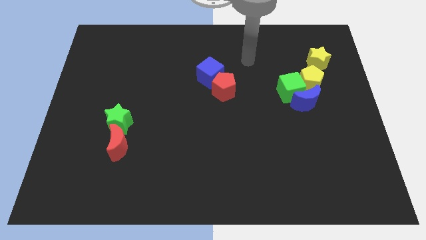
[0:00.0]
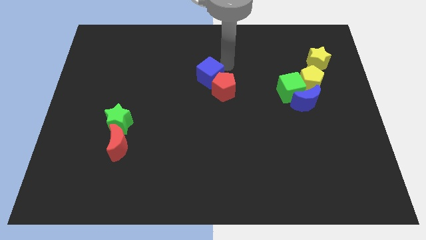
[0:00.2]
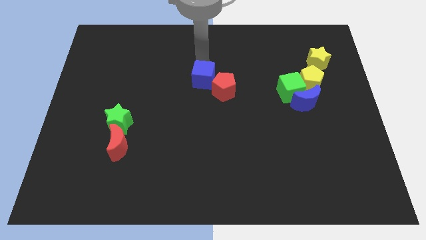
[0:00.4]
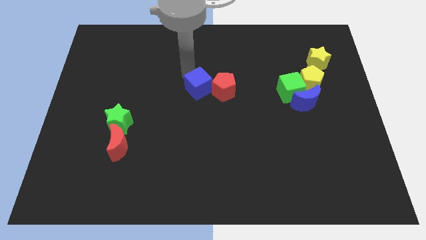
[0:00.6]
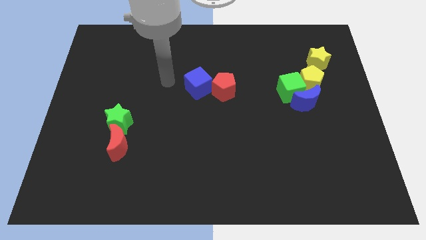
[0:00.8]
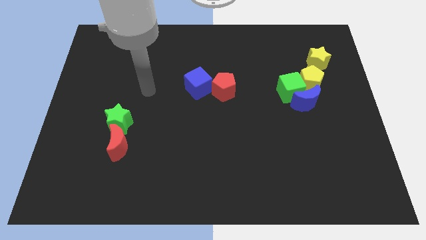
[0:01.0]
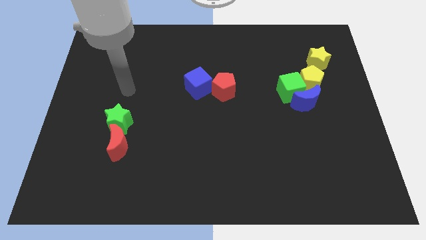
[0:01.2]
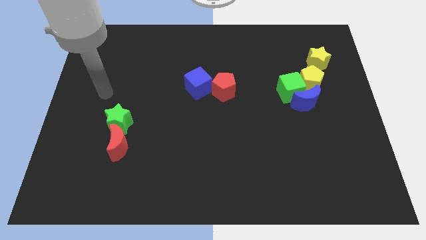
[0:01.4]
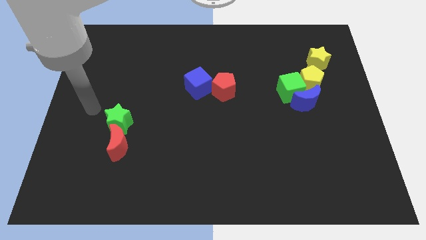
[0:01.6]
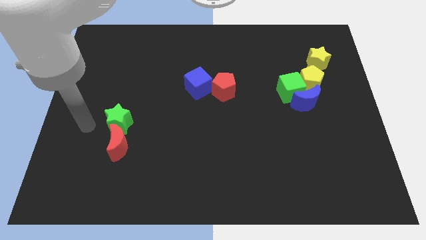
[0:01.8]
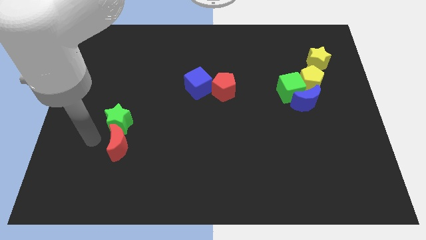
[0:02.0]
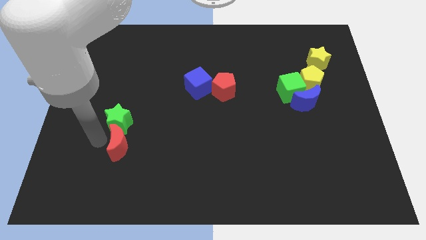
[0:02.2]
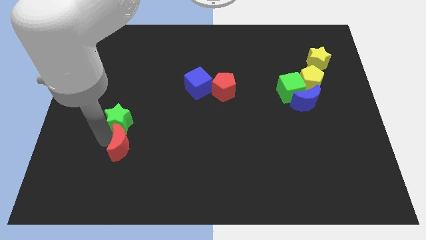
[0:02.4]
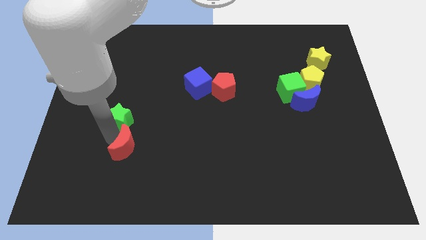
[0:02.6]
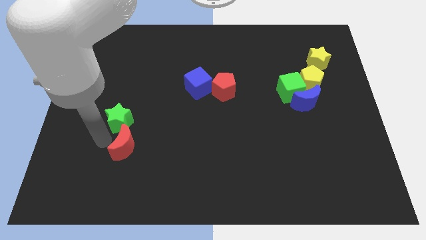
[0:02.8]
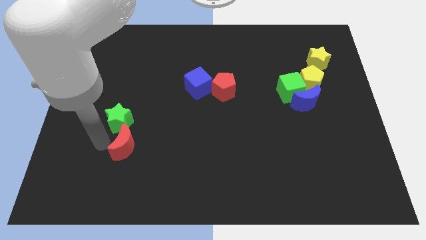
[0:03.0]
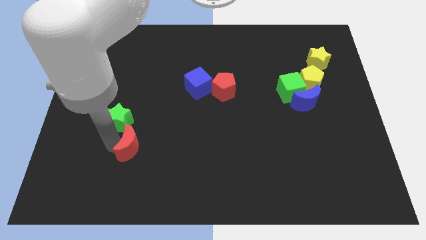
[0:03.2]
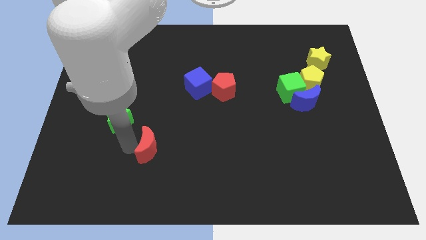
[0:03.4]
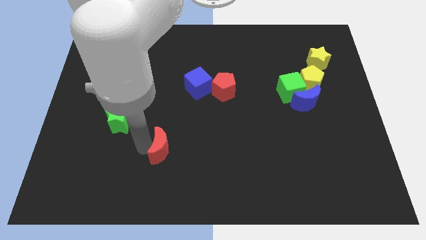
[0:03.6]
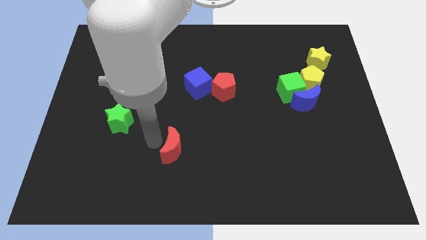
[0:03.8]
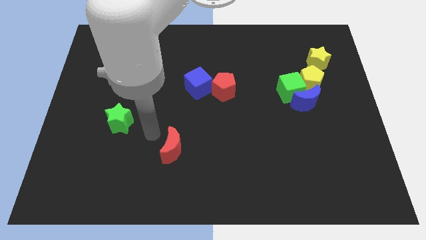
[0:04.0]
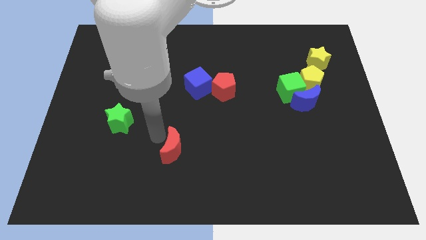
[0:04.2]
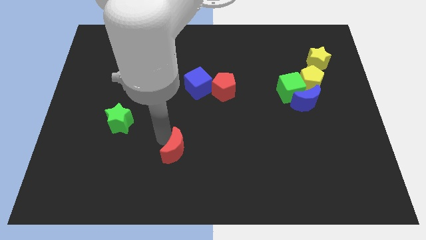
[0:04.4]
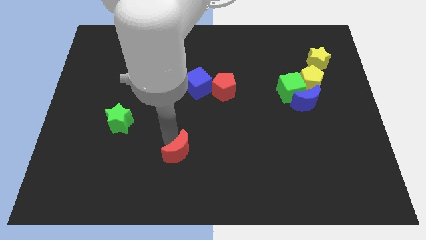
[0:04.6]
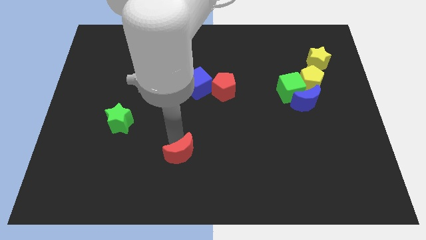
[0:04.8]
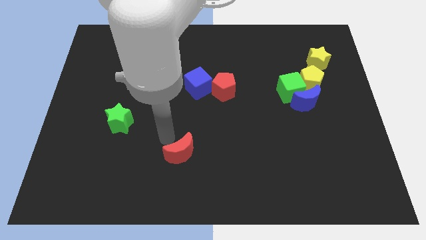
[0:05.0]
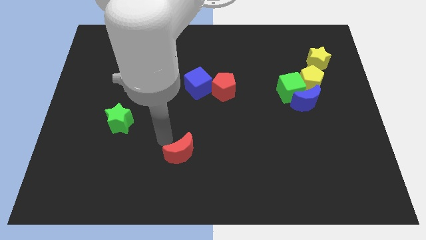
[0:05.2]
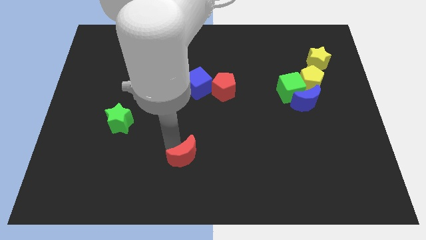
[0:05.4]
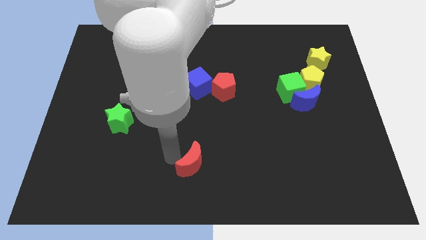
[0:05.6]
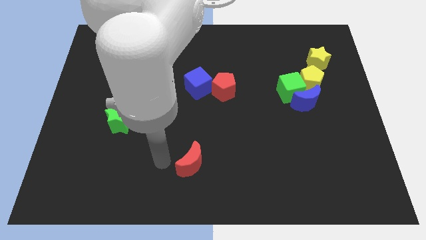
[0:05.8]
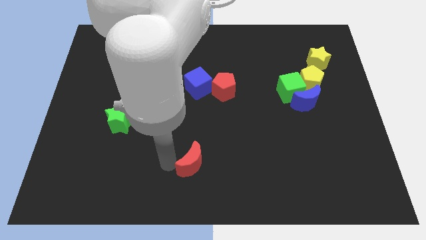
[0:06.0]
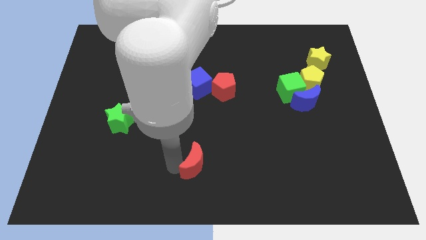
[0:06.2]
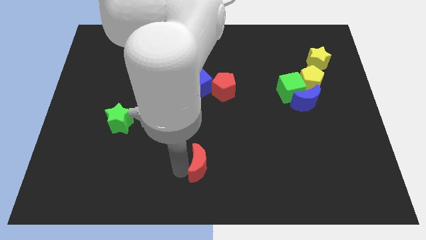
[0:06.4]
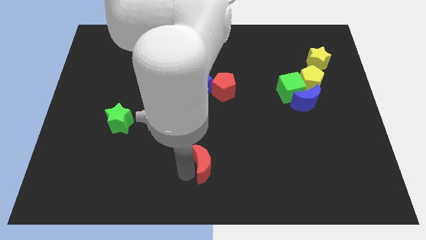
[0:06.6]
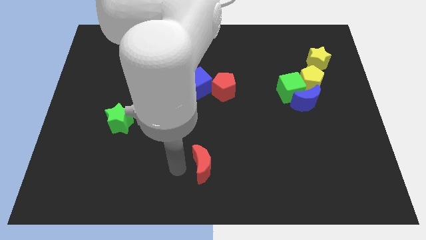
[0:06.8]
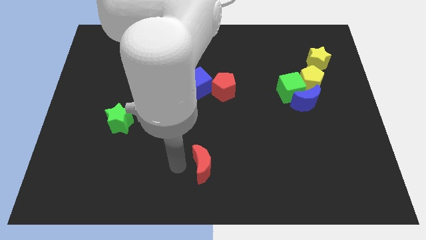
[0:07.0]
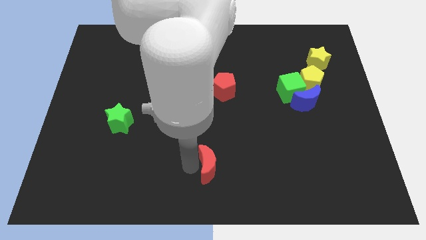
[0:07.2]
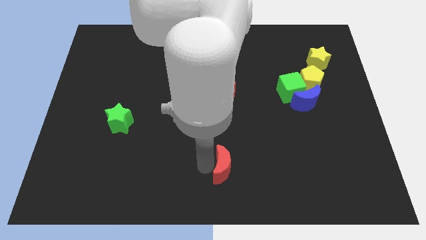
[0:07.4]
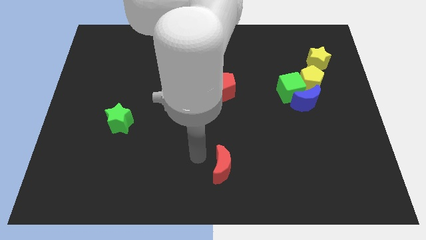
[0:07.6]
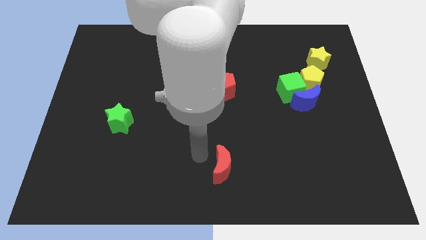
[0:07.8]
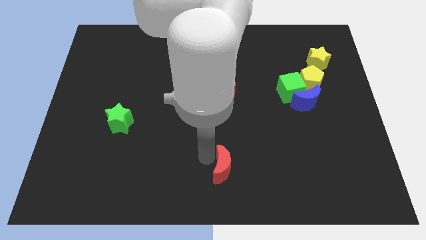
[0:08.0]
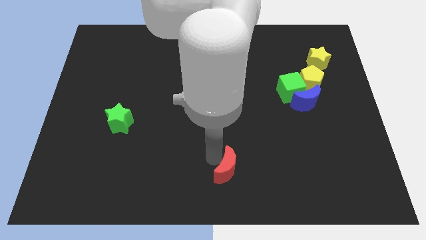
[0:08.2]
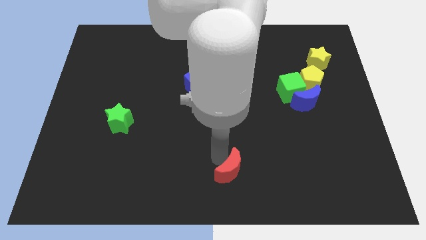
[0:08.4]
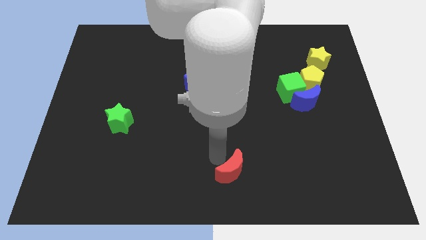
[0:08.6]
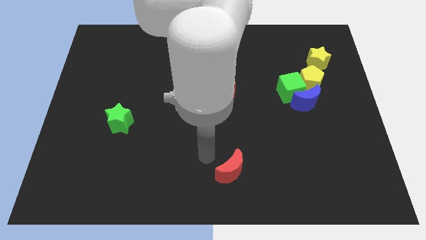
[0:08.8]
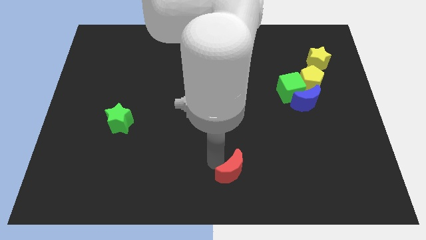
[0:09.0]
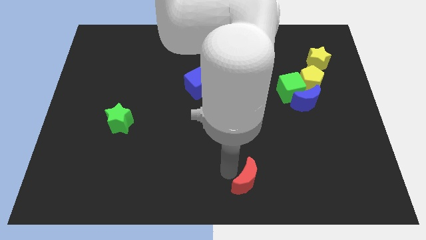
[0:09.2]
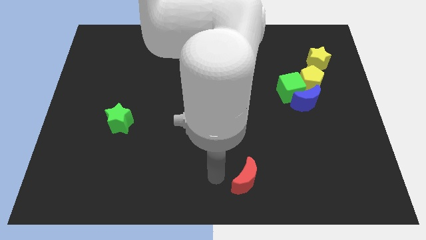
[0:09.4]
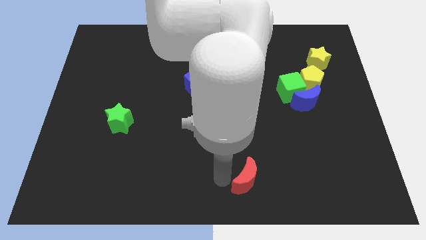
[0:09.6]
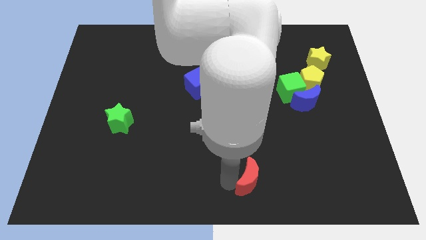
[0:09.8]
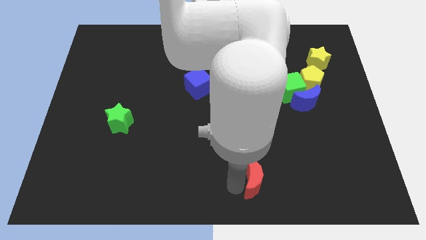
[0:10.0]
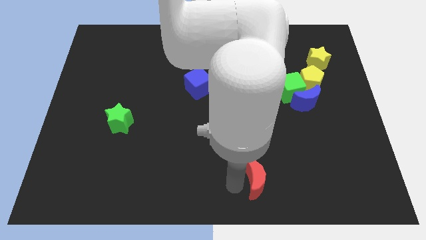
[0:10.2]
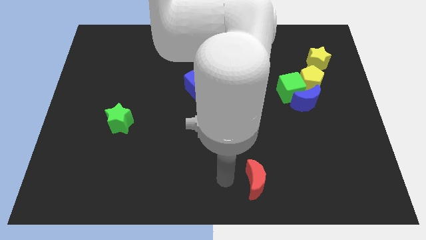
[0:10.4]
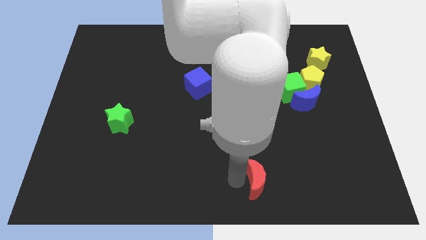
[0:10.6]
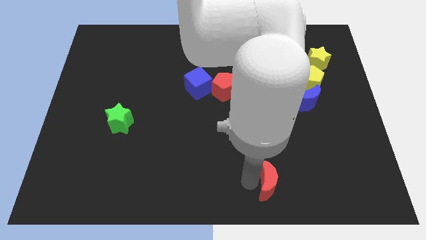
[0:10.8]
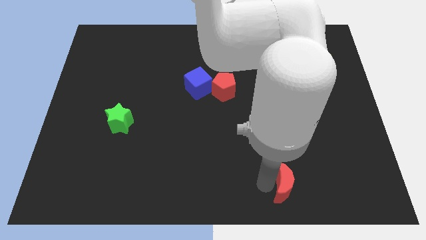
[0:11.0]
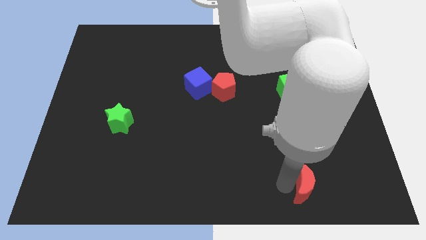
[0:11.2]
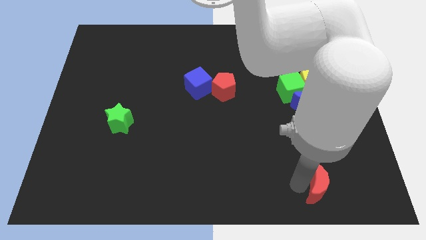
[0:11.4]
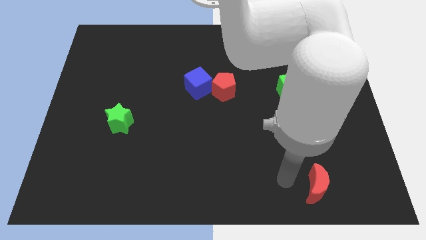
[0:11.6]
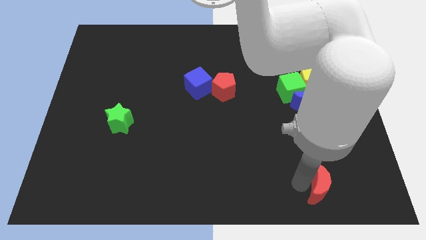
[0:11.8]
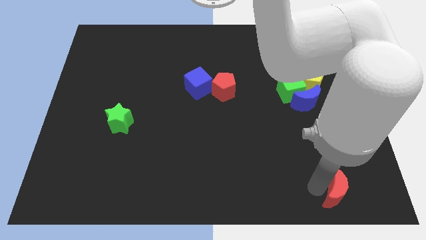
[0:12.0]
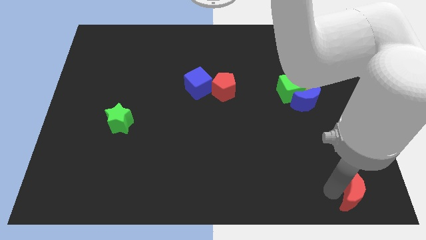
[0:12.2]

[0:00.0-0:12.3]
push the red moon to the bottom right corner
